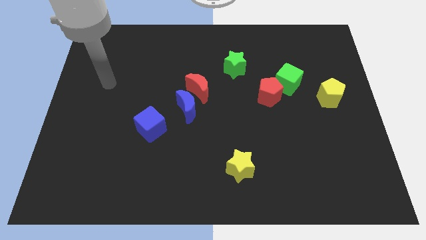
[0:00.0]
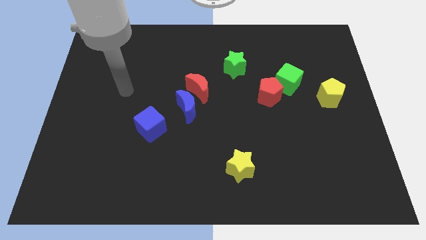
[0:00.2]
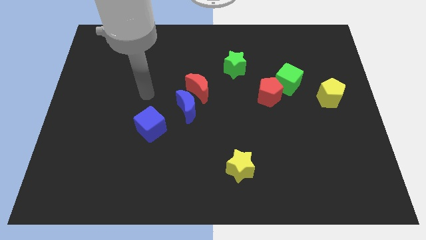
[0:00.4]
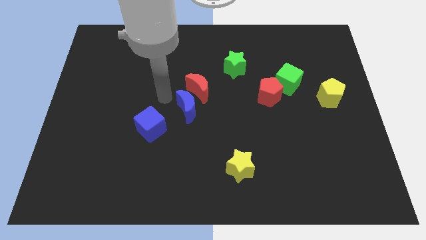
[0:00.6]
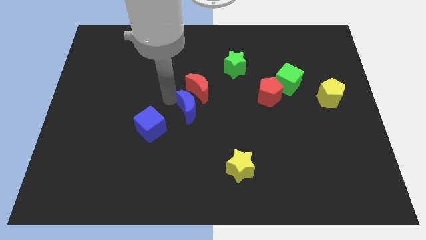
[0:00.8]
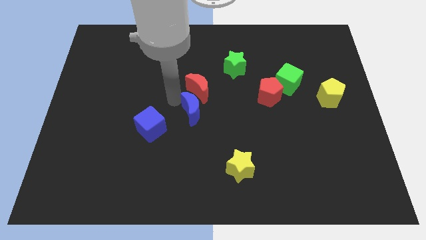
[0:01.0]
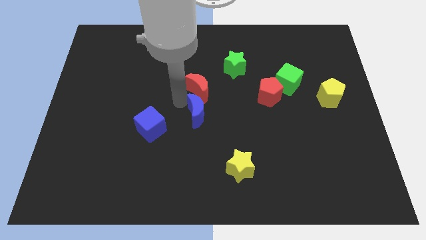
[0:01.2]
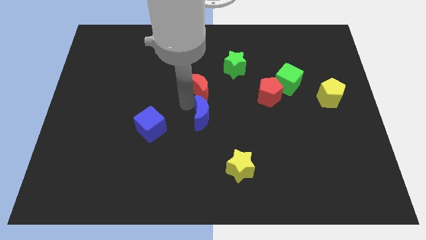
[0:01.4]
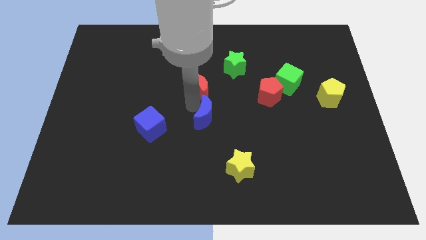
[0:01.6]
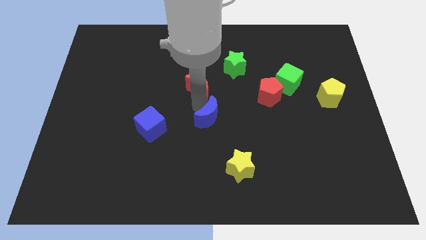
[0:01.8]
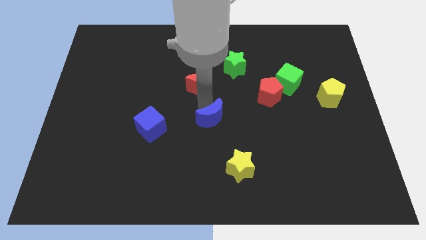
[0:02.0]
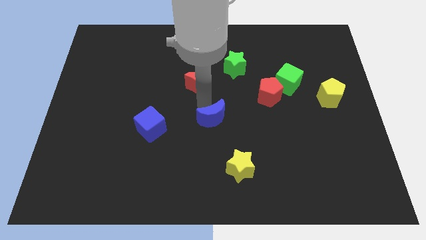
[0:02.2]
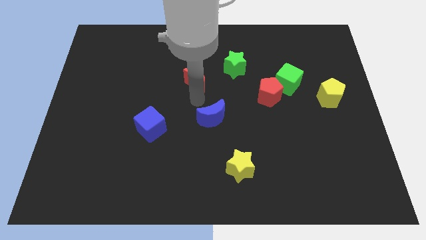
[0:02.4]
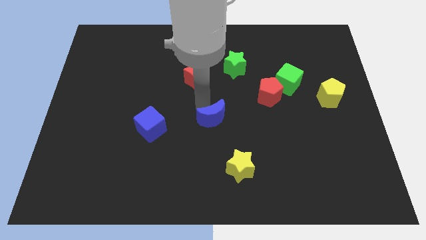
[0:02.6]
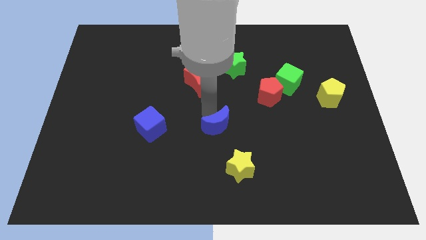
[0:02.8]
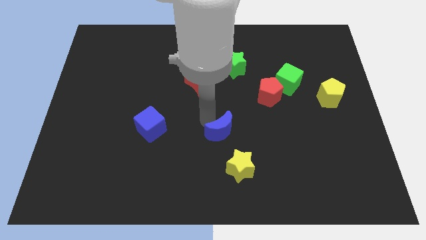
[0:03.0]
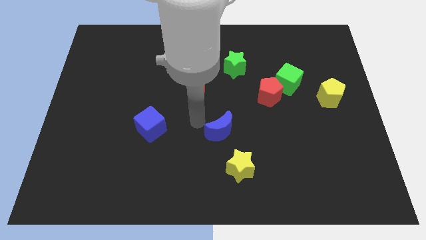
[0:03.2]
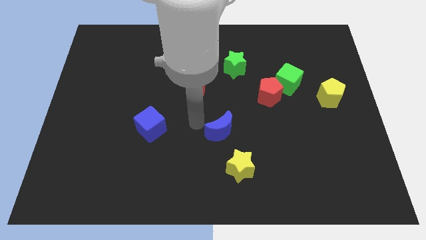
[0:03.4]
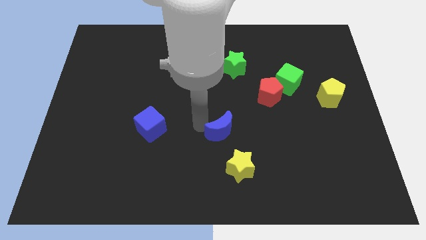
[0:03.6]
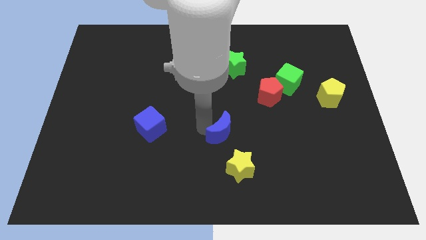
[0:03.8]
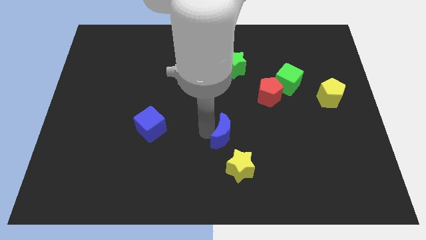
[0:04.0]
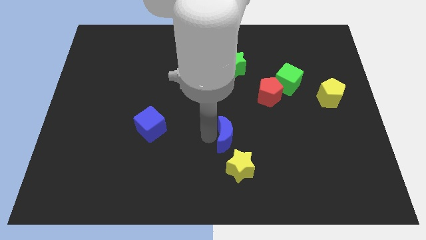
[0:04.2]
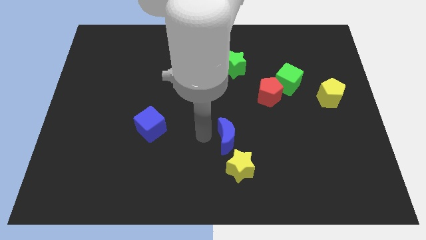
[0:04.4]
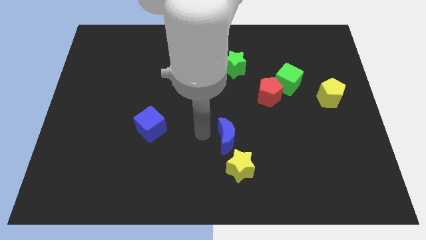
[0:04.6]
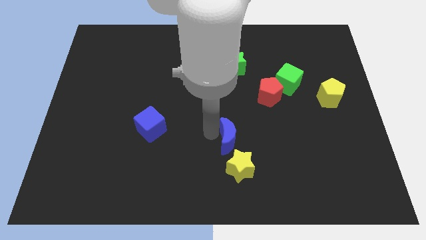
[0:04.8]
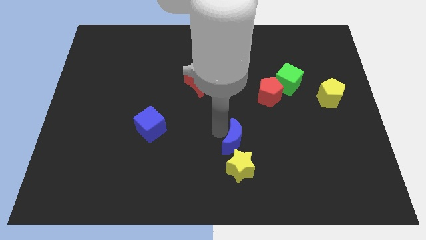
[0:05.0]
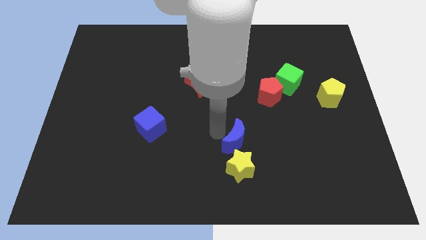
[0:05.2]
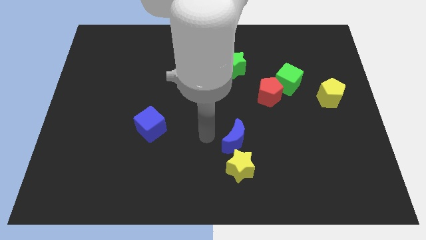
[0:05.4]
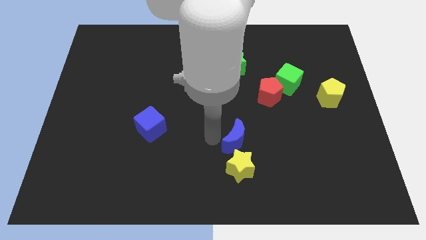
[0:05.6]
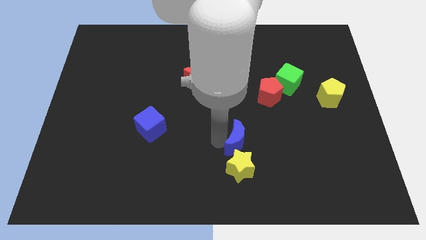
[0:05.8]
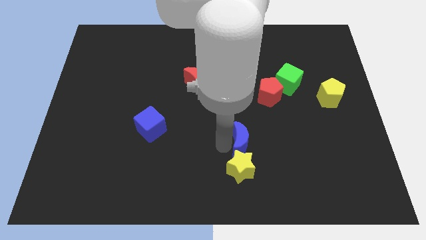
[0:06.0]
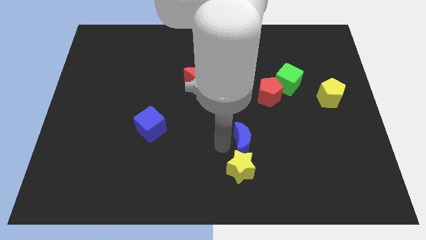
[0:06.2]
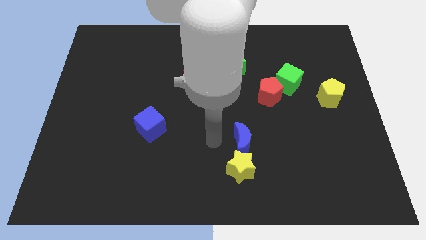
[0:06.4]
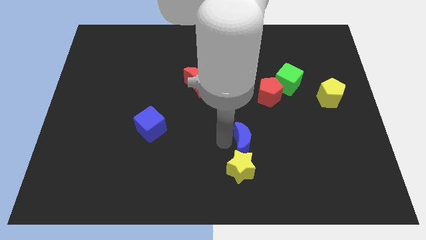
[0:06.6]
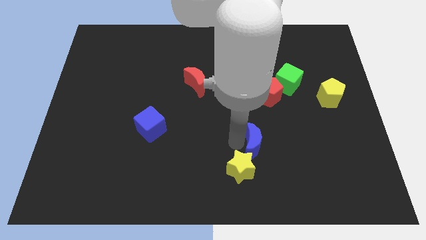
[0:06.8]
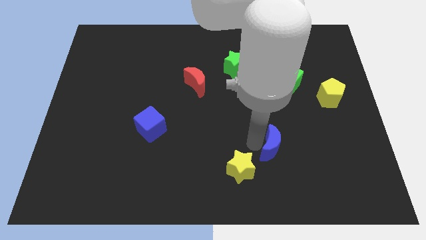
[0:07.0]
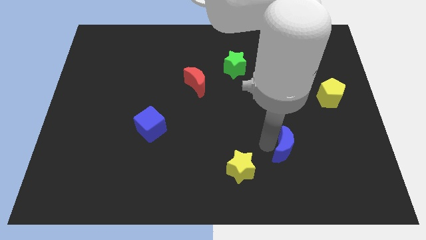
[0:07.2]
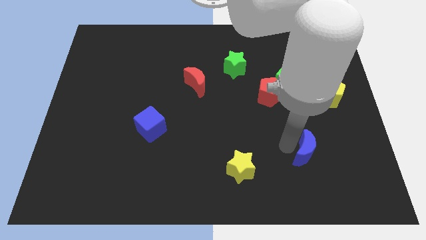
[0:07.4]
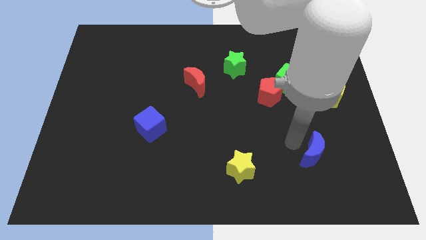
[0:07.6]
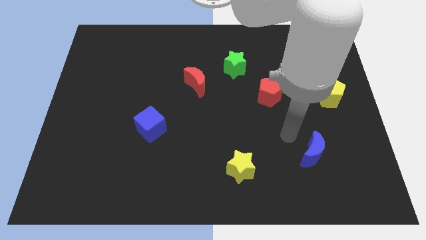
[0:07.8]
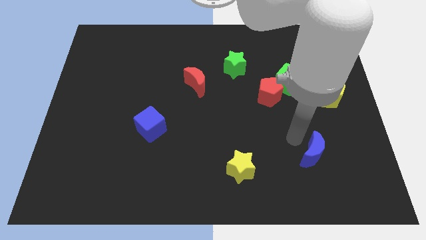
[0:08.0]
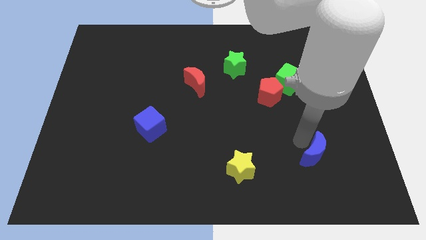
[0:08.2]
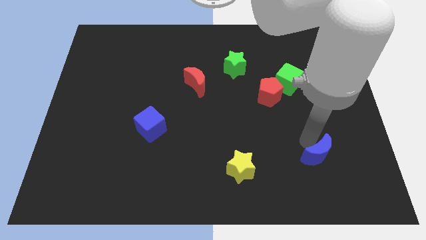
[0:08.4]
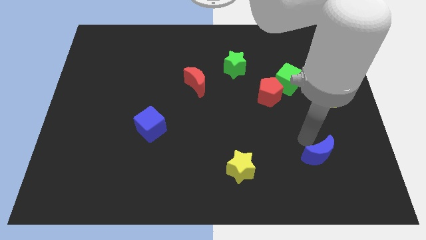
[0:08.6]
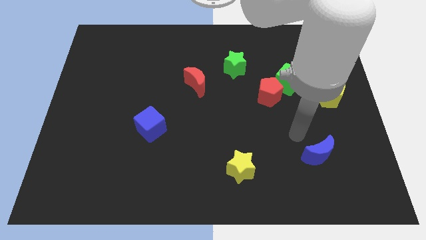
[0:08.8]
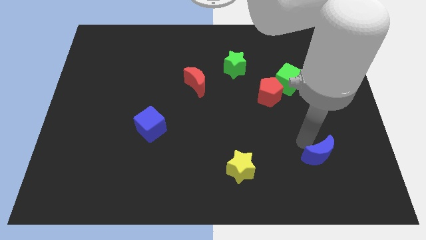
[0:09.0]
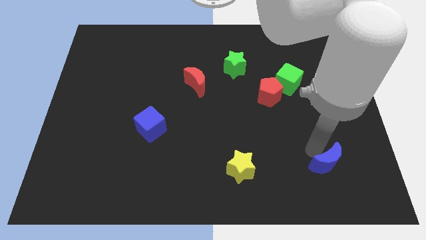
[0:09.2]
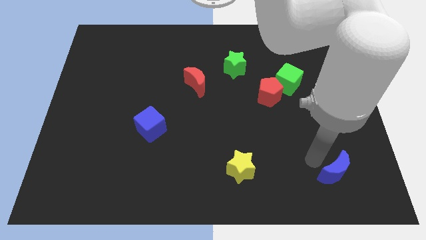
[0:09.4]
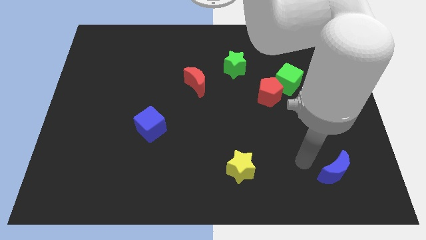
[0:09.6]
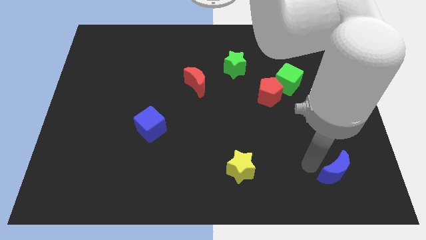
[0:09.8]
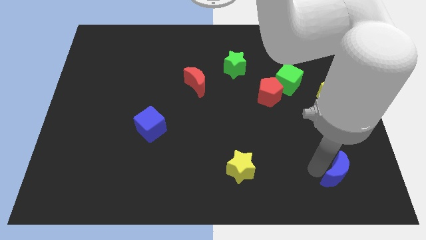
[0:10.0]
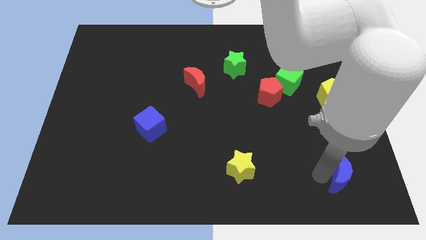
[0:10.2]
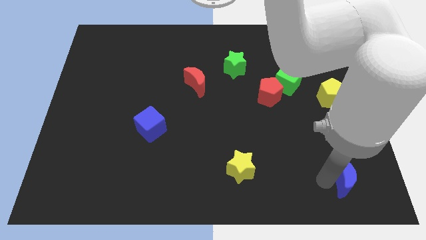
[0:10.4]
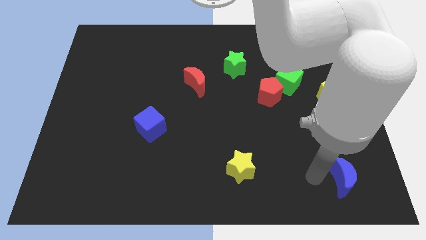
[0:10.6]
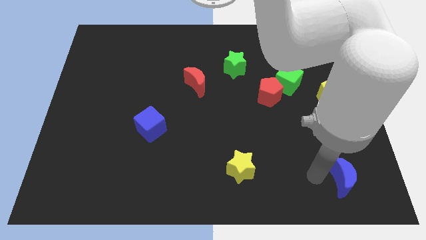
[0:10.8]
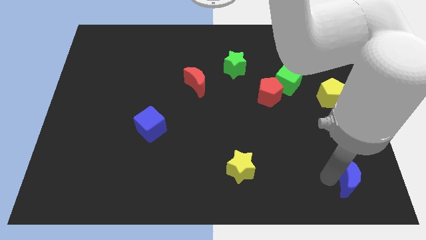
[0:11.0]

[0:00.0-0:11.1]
slide the blue moon to the bottom right corner

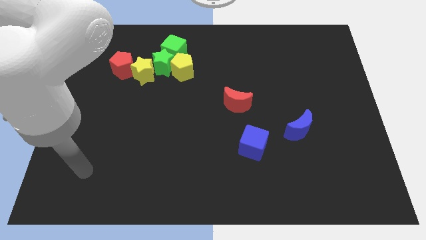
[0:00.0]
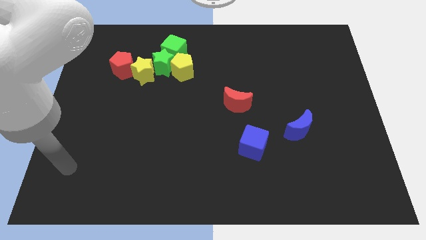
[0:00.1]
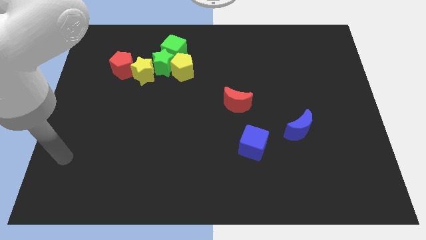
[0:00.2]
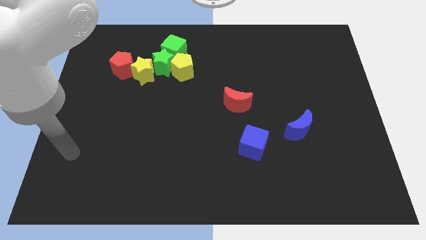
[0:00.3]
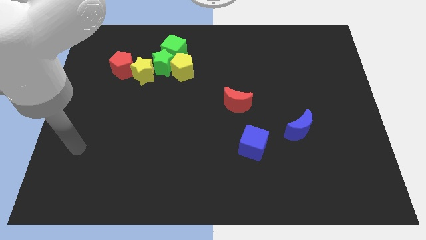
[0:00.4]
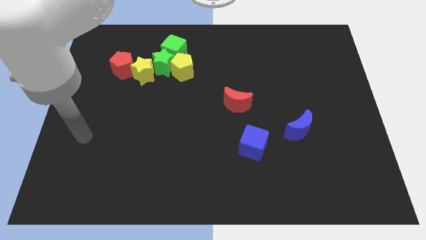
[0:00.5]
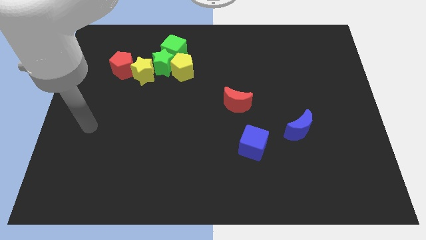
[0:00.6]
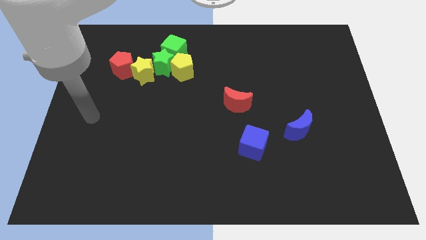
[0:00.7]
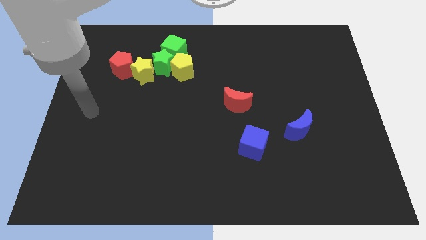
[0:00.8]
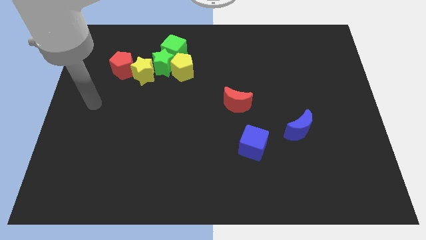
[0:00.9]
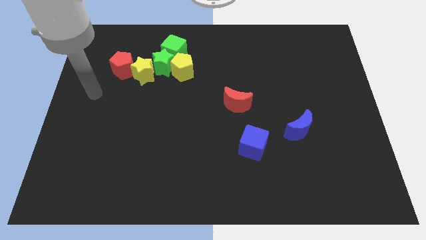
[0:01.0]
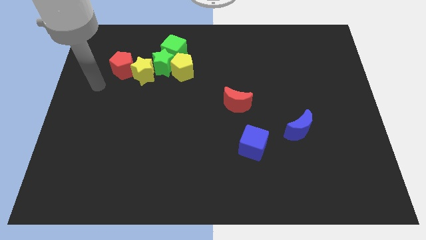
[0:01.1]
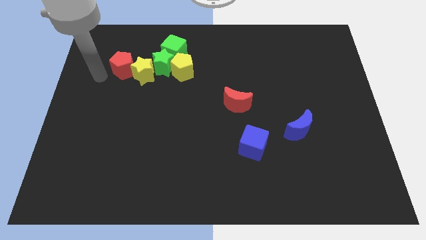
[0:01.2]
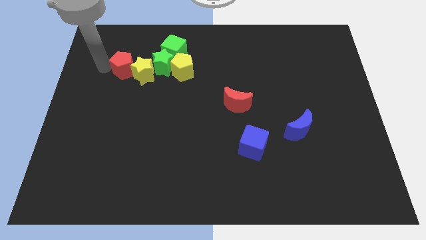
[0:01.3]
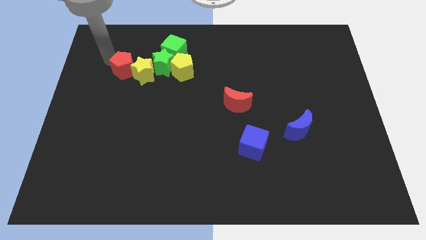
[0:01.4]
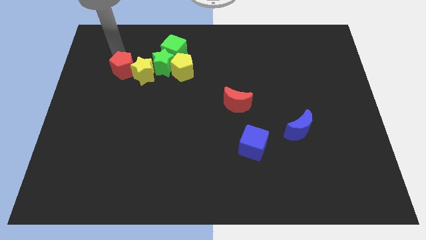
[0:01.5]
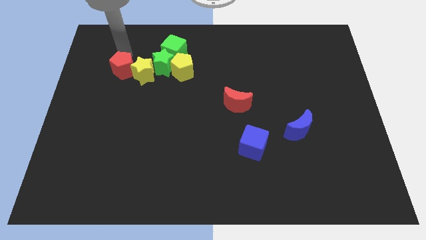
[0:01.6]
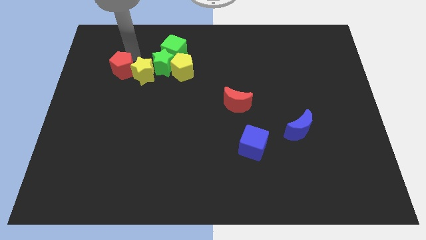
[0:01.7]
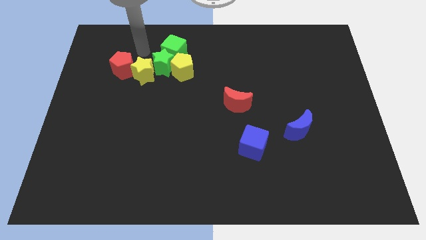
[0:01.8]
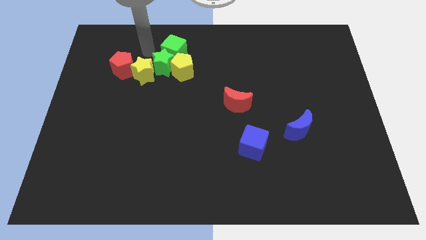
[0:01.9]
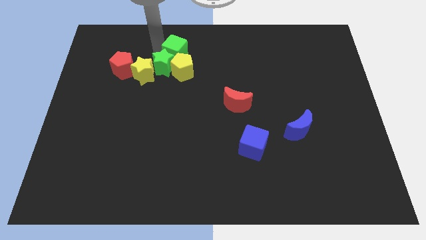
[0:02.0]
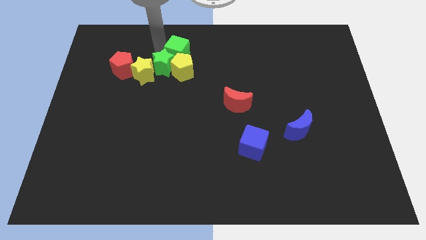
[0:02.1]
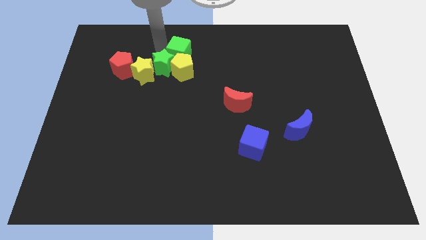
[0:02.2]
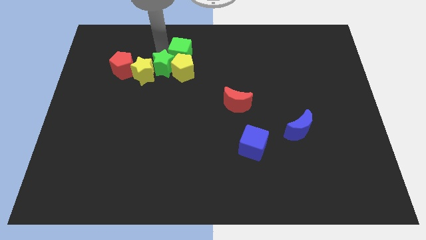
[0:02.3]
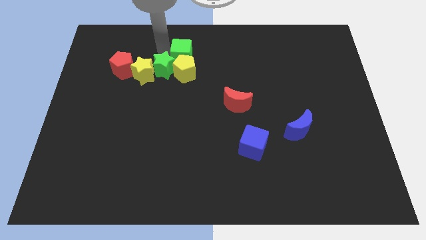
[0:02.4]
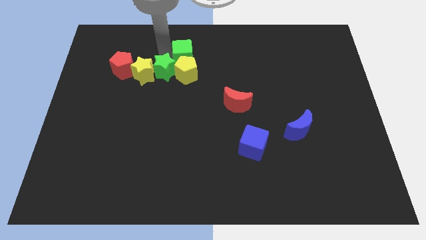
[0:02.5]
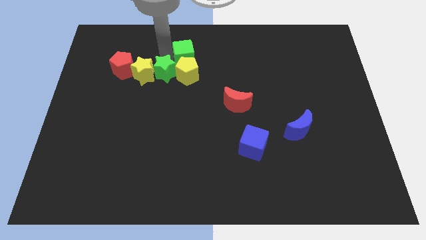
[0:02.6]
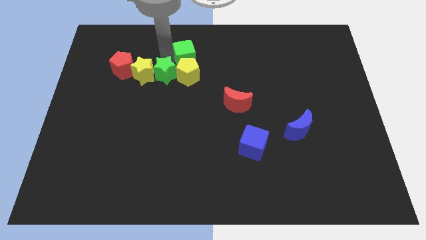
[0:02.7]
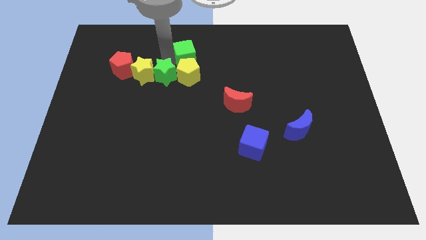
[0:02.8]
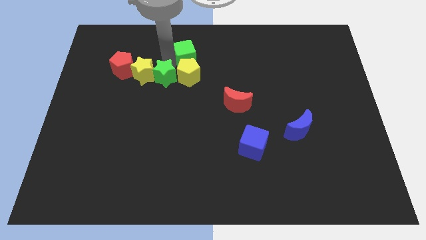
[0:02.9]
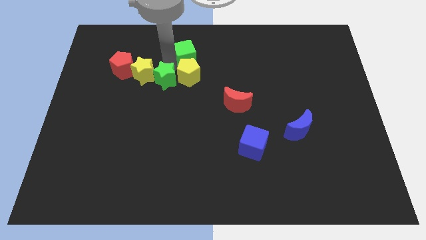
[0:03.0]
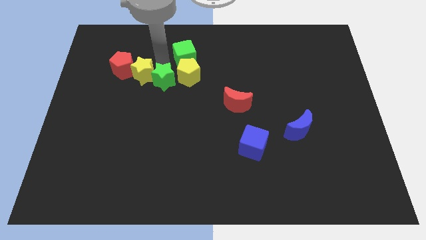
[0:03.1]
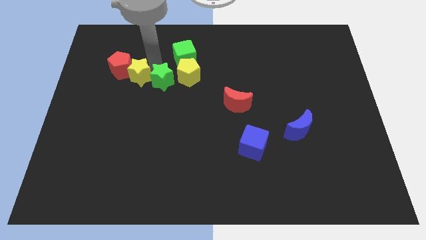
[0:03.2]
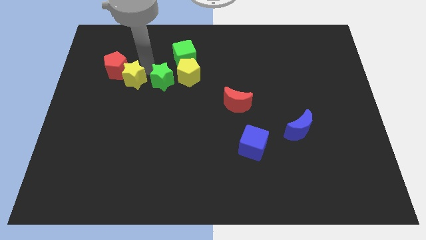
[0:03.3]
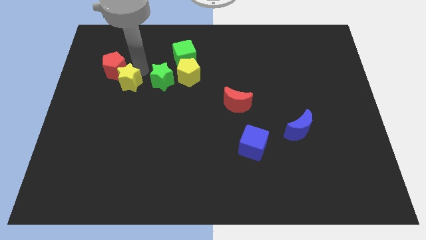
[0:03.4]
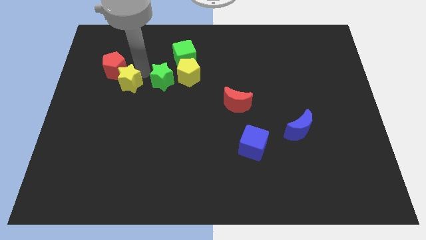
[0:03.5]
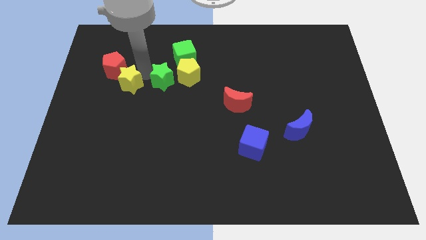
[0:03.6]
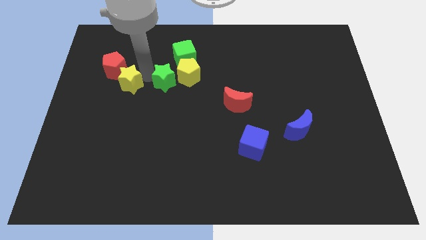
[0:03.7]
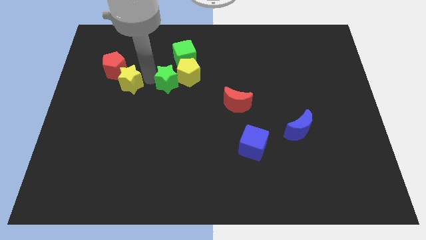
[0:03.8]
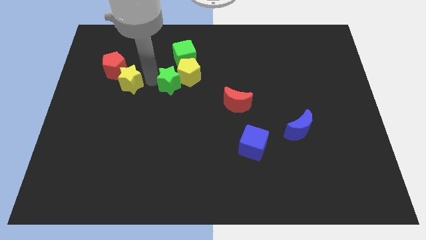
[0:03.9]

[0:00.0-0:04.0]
put the green star to the center of the board
